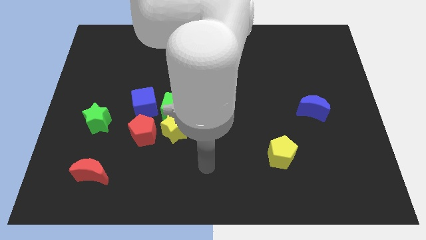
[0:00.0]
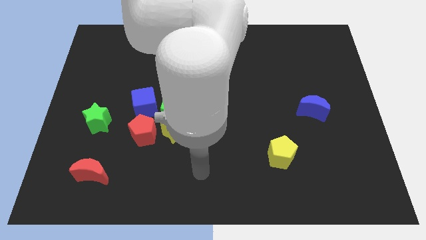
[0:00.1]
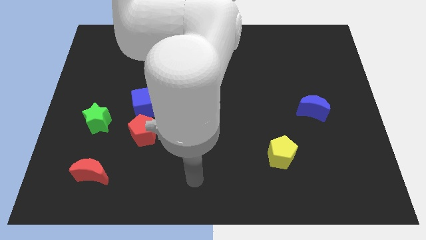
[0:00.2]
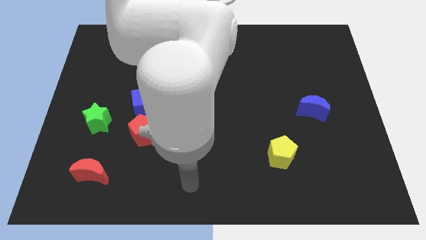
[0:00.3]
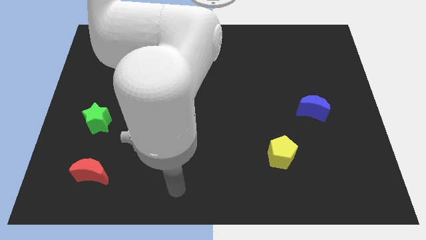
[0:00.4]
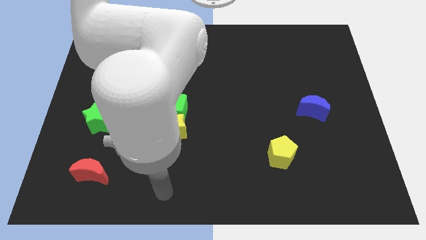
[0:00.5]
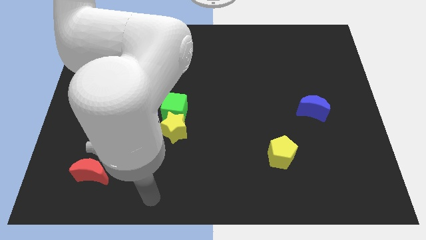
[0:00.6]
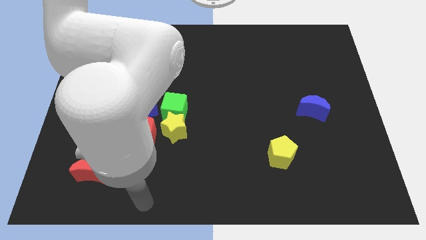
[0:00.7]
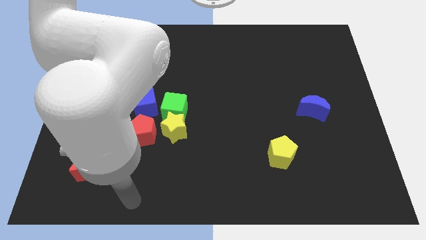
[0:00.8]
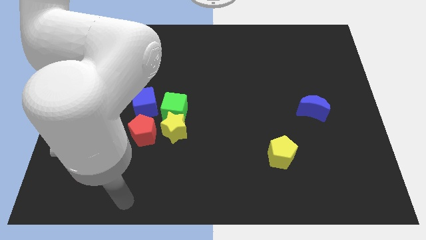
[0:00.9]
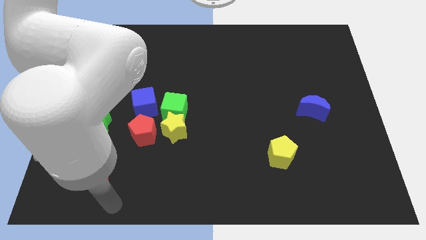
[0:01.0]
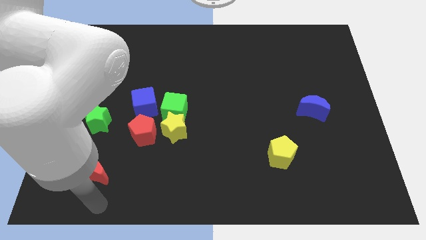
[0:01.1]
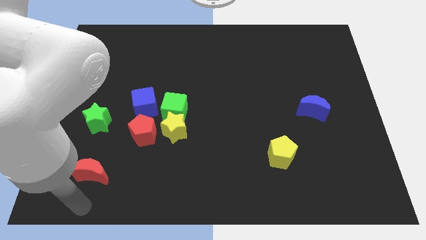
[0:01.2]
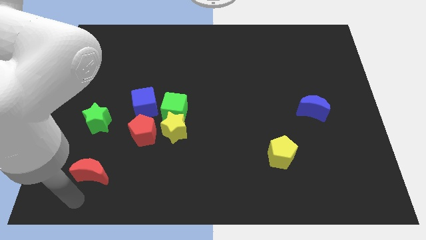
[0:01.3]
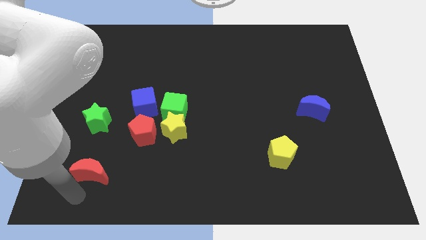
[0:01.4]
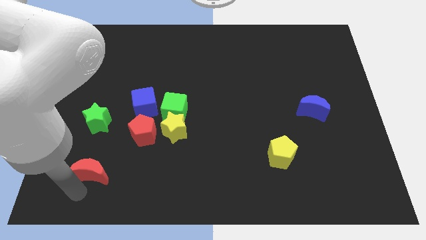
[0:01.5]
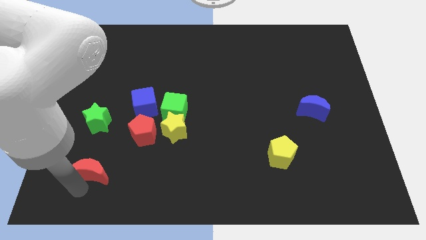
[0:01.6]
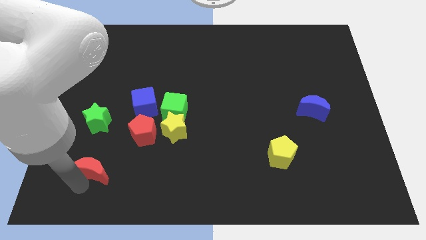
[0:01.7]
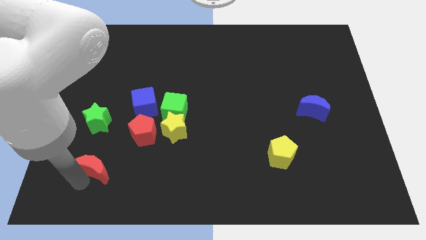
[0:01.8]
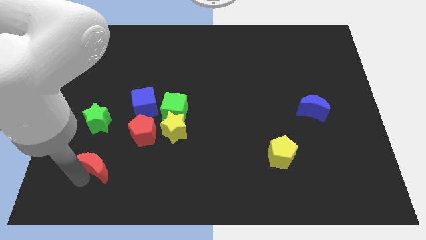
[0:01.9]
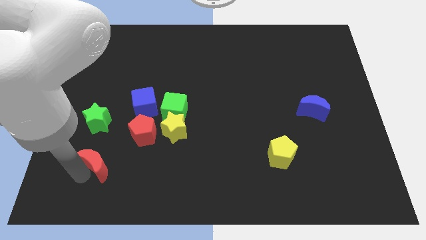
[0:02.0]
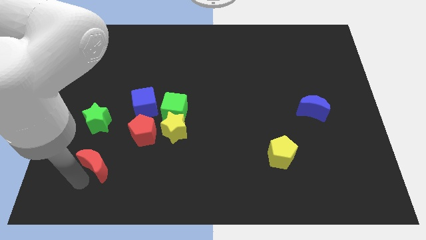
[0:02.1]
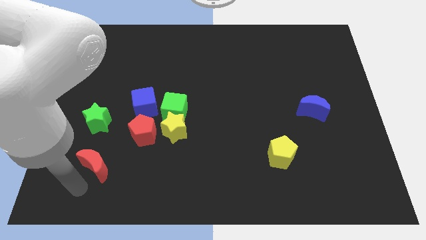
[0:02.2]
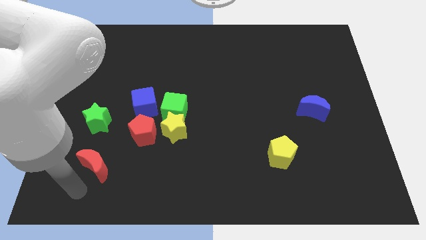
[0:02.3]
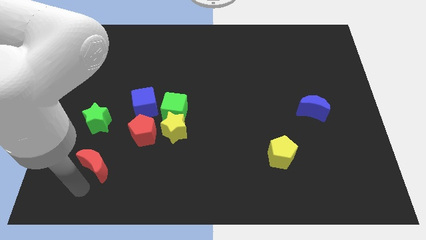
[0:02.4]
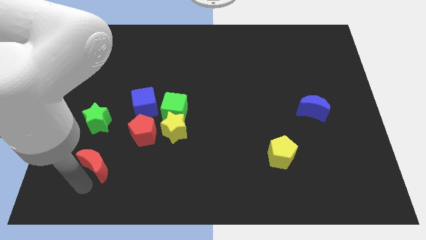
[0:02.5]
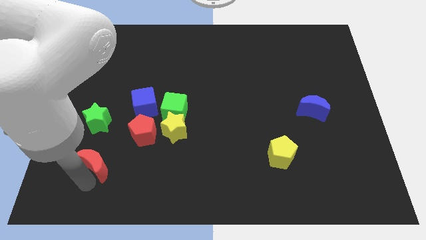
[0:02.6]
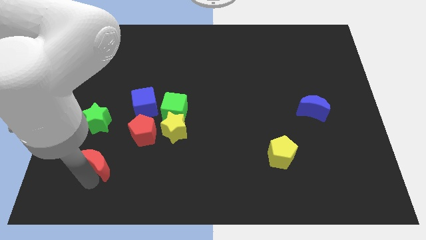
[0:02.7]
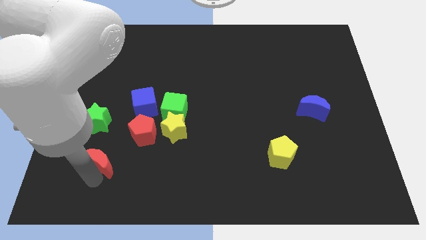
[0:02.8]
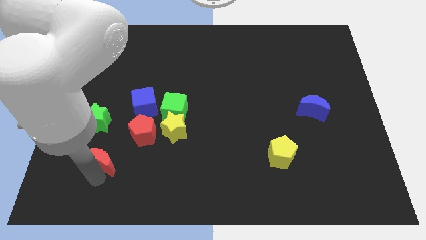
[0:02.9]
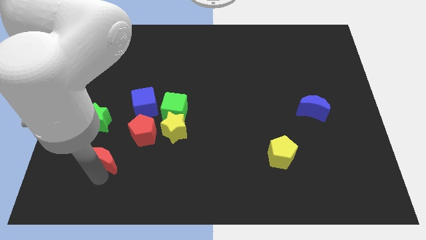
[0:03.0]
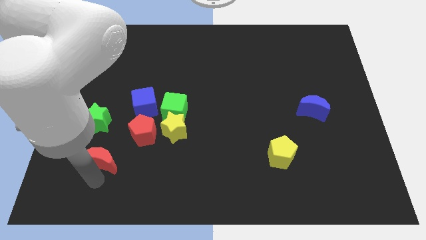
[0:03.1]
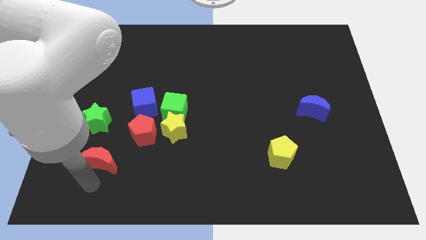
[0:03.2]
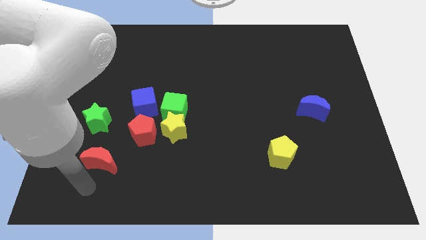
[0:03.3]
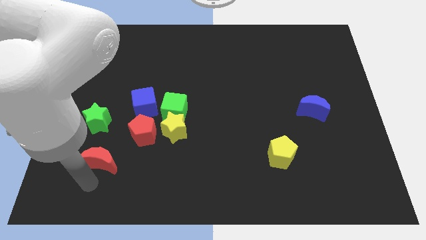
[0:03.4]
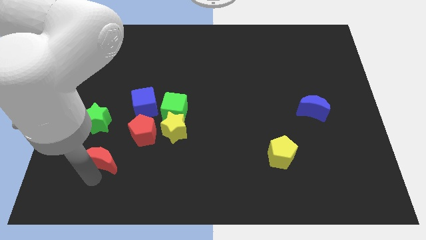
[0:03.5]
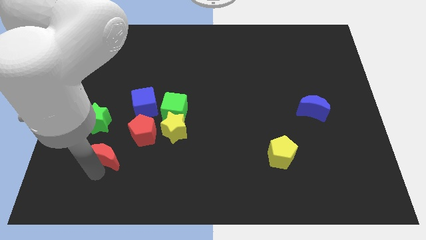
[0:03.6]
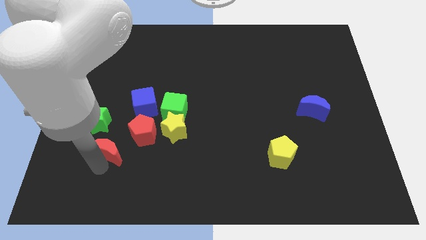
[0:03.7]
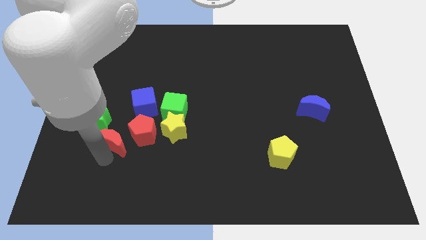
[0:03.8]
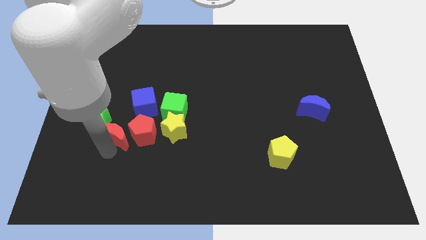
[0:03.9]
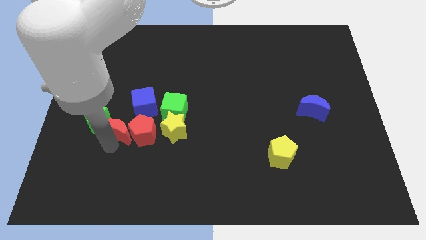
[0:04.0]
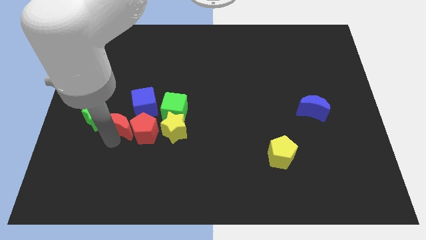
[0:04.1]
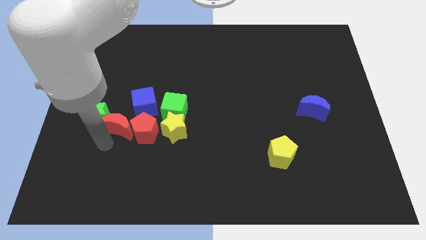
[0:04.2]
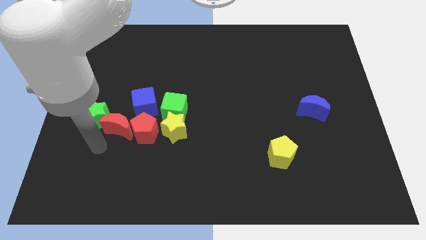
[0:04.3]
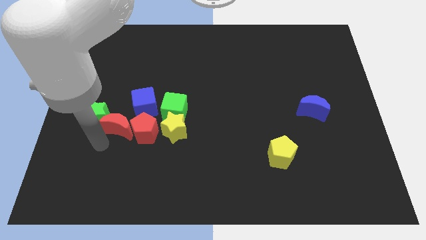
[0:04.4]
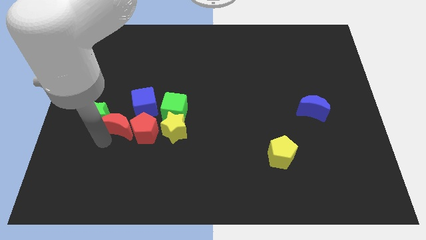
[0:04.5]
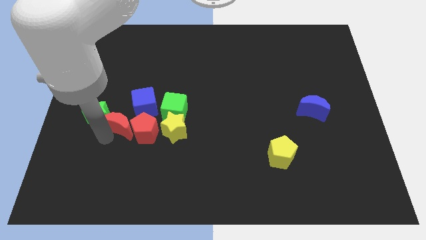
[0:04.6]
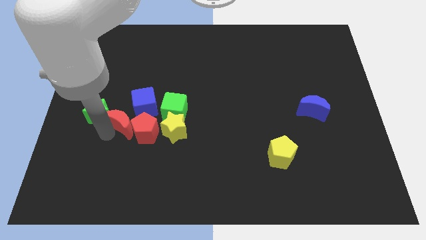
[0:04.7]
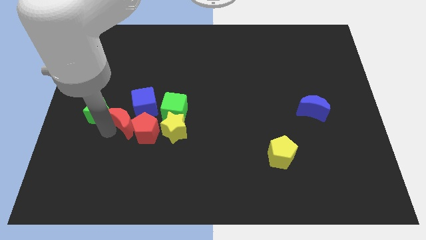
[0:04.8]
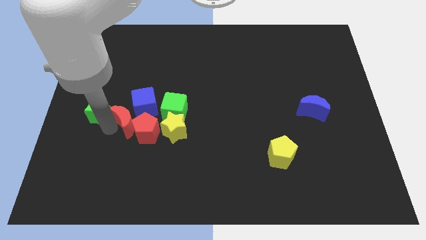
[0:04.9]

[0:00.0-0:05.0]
put the red moon close to the blue cube

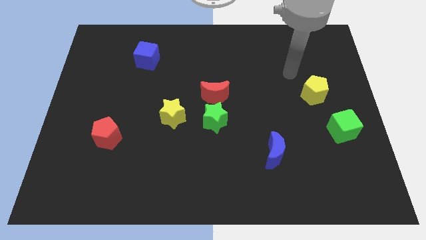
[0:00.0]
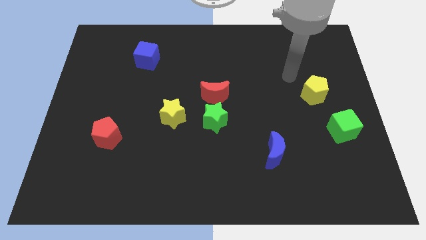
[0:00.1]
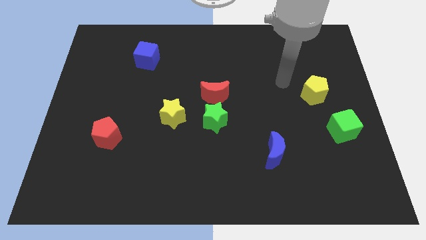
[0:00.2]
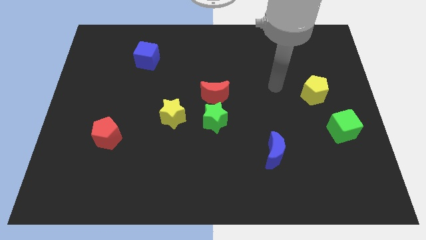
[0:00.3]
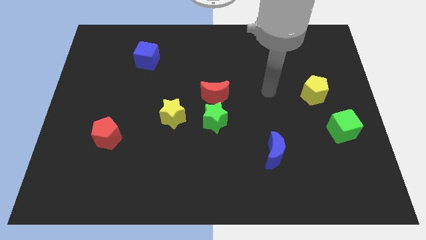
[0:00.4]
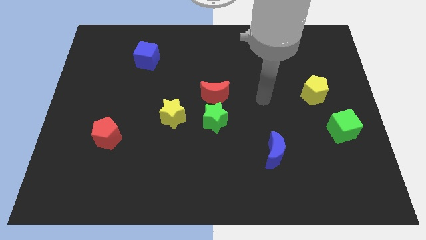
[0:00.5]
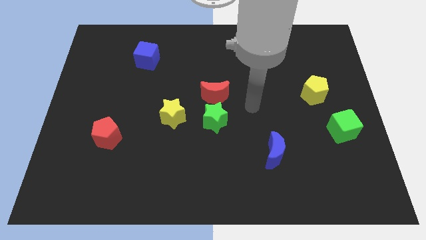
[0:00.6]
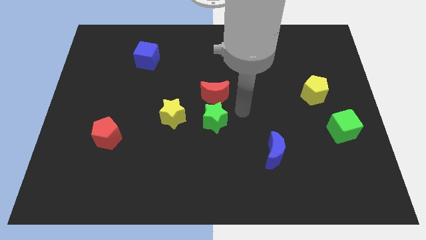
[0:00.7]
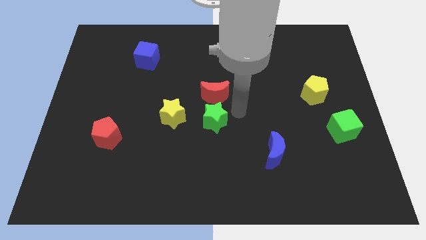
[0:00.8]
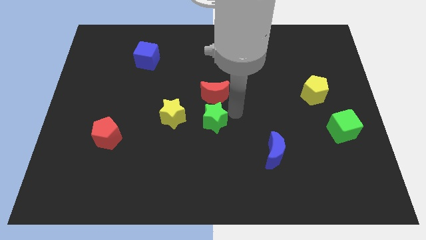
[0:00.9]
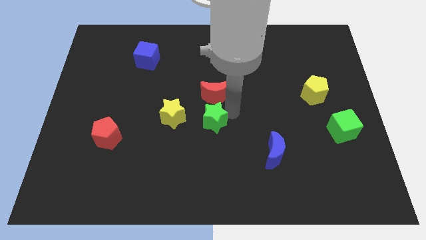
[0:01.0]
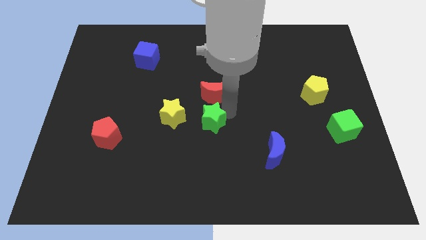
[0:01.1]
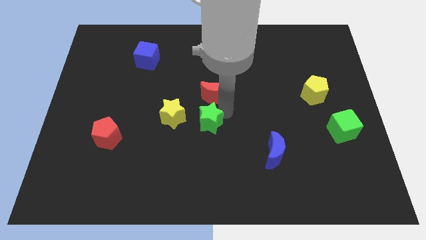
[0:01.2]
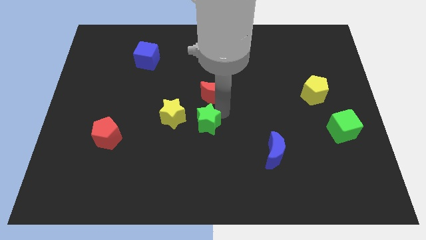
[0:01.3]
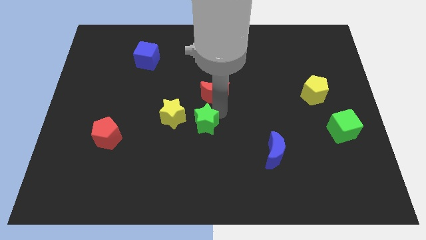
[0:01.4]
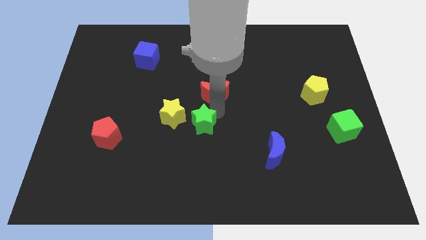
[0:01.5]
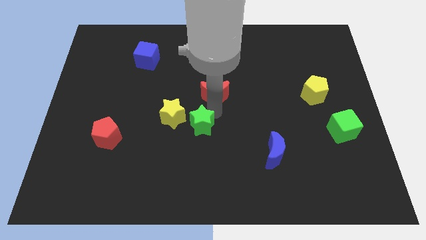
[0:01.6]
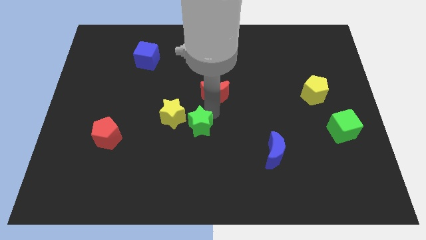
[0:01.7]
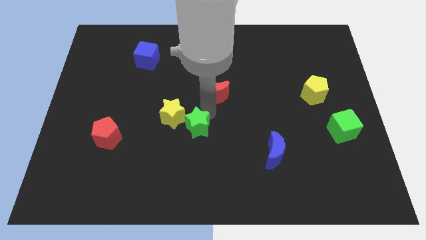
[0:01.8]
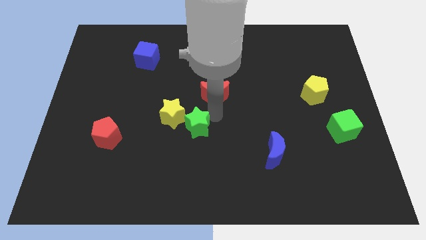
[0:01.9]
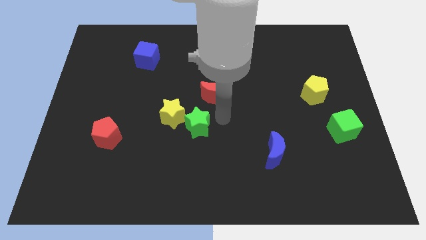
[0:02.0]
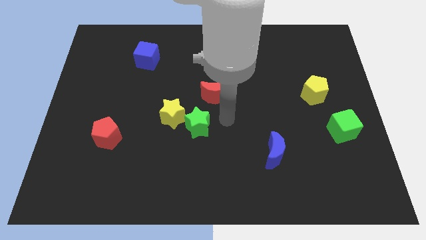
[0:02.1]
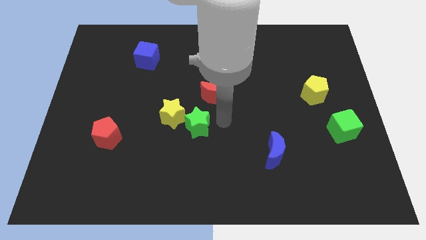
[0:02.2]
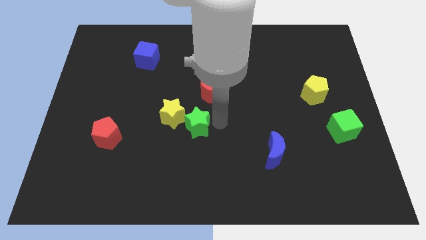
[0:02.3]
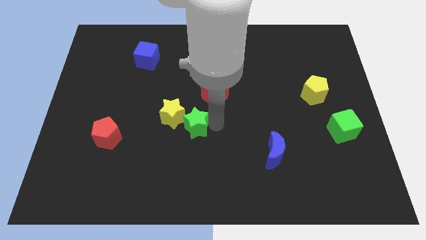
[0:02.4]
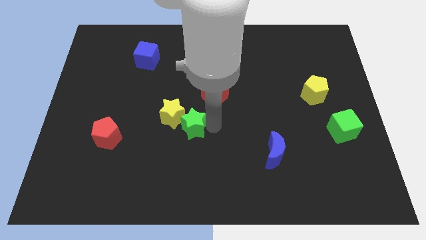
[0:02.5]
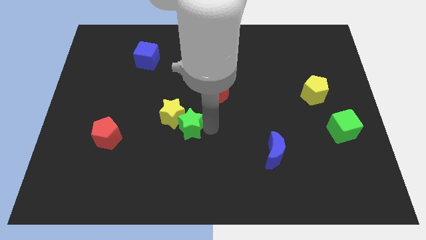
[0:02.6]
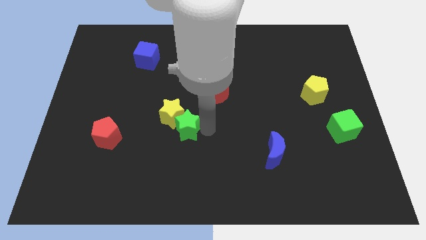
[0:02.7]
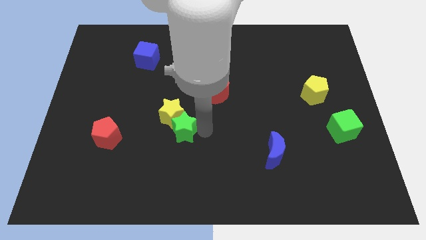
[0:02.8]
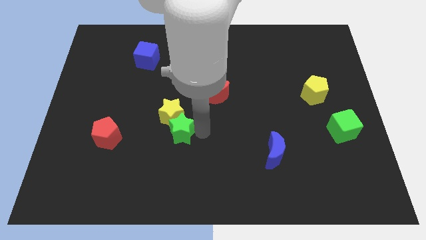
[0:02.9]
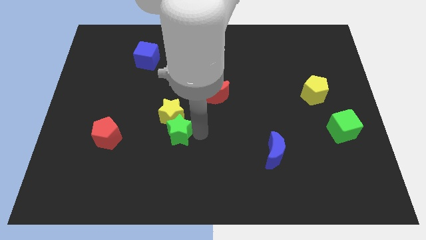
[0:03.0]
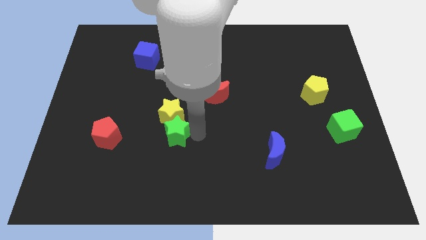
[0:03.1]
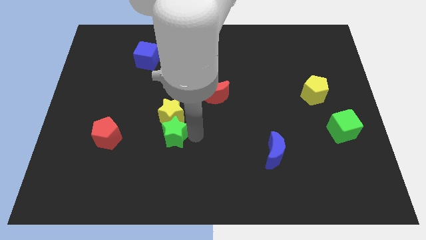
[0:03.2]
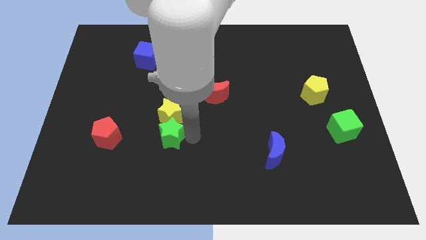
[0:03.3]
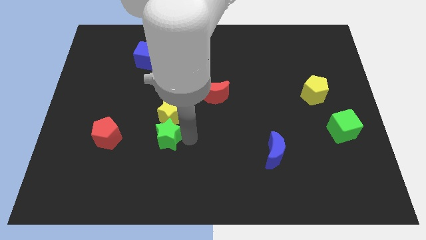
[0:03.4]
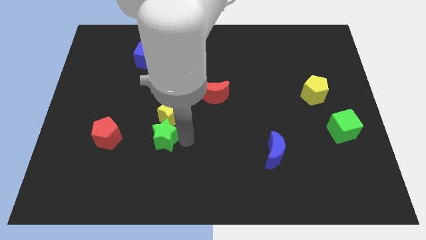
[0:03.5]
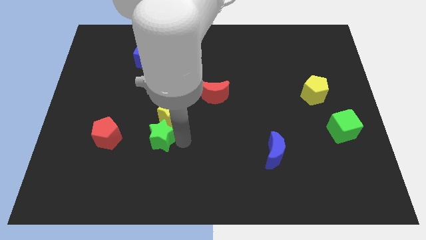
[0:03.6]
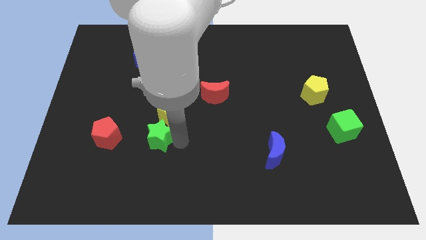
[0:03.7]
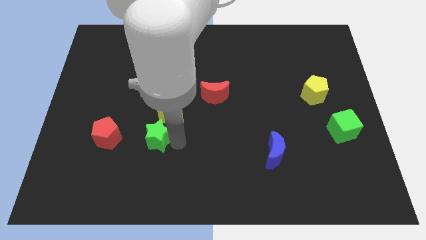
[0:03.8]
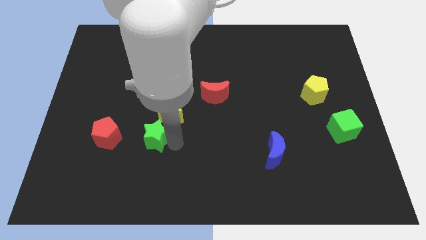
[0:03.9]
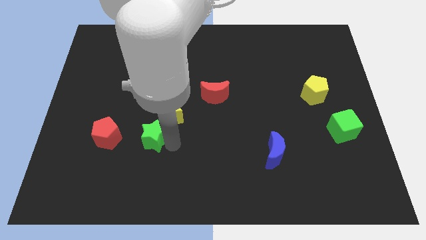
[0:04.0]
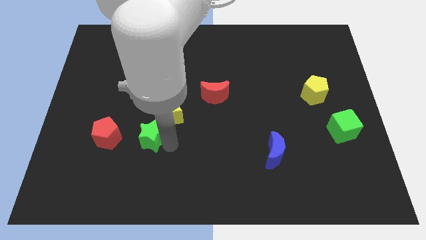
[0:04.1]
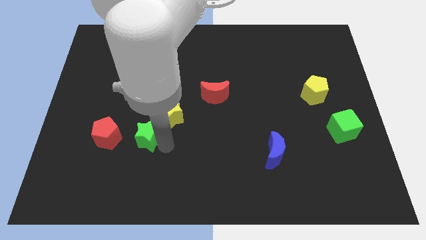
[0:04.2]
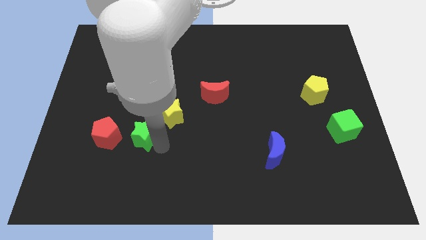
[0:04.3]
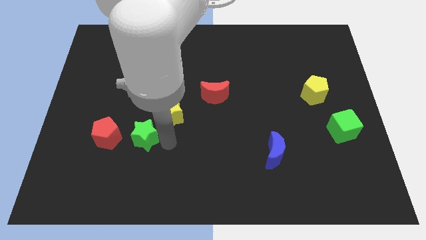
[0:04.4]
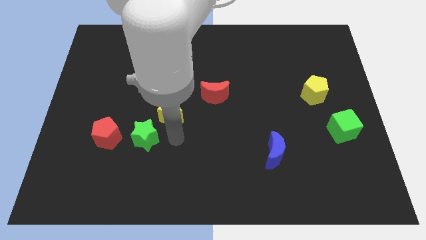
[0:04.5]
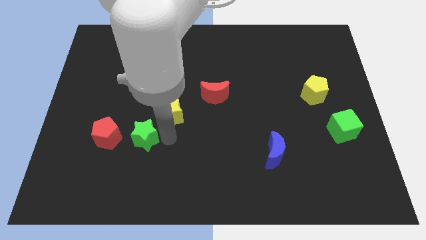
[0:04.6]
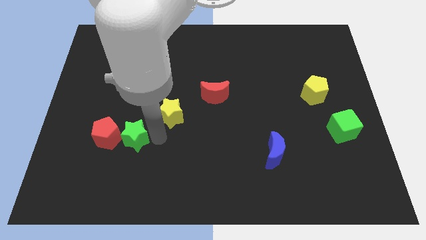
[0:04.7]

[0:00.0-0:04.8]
slide the green star to the red pentagon
